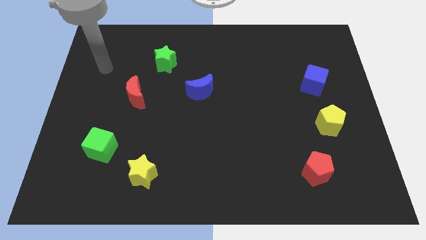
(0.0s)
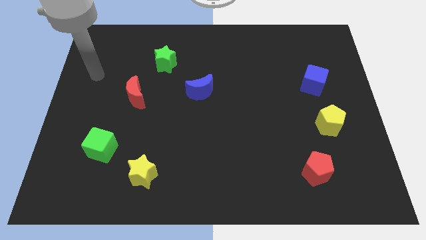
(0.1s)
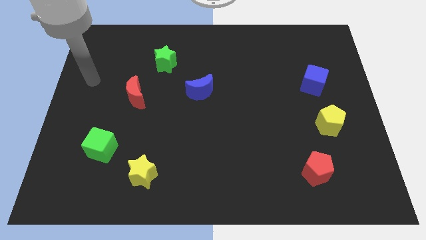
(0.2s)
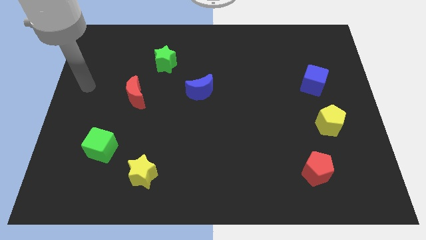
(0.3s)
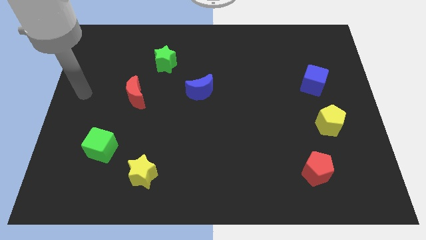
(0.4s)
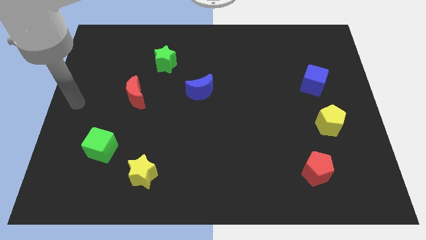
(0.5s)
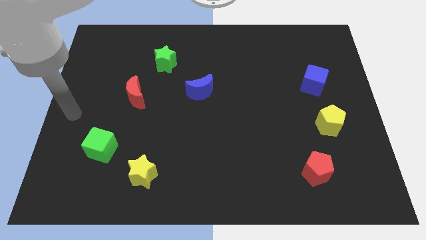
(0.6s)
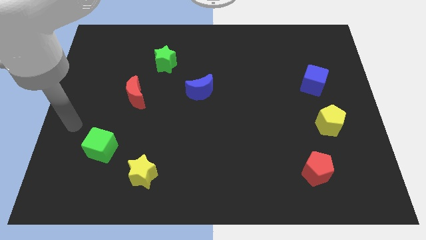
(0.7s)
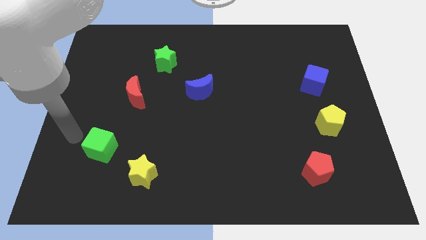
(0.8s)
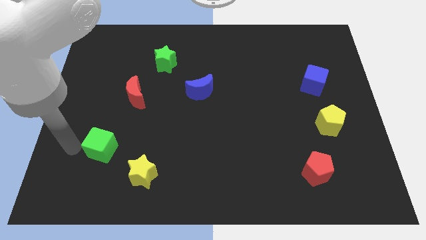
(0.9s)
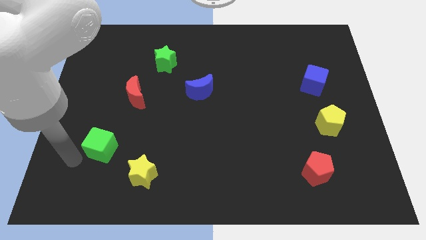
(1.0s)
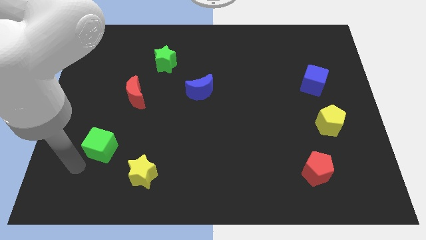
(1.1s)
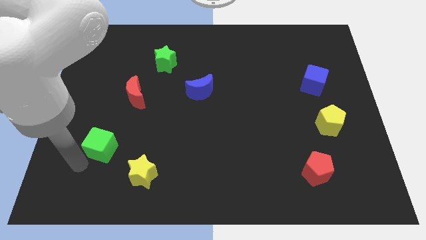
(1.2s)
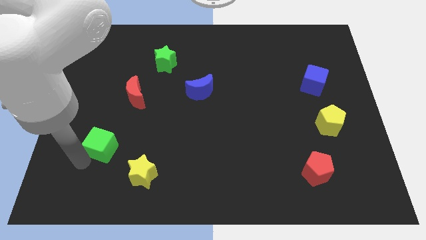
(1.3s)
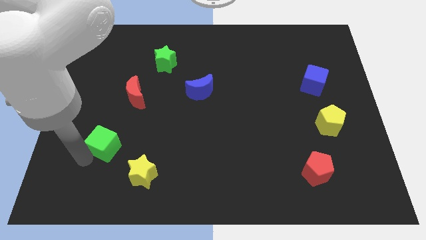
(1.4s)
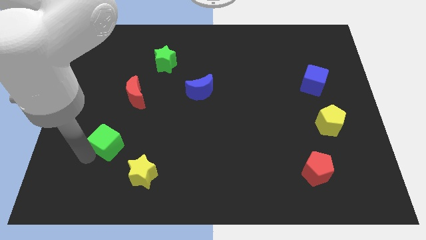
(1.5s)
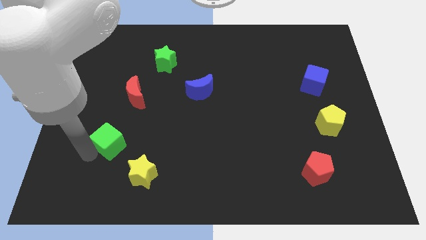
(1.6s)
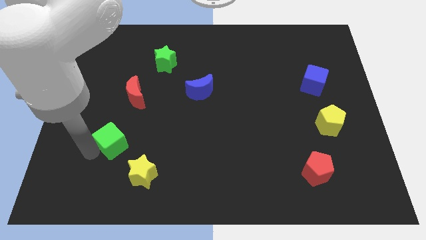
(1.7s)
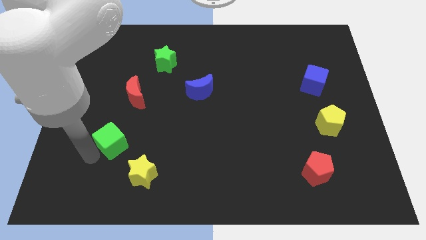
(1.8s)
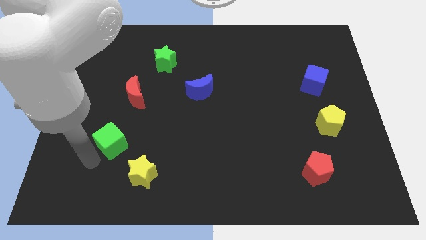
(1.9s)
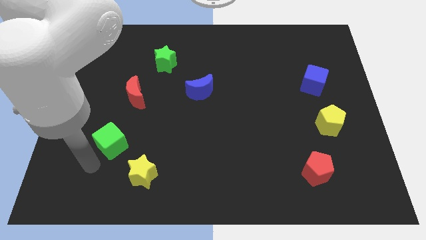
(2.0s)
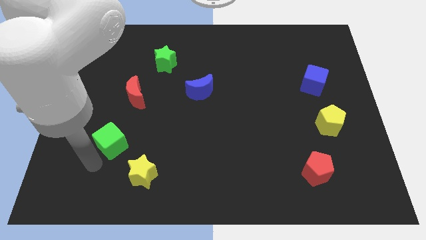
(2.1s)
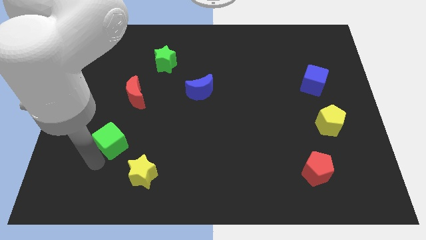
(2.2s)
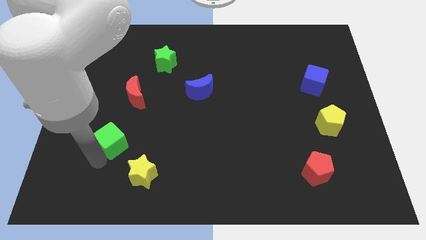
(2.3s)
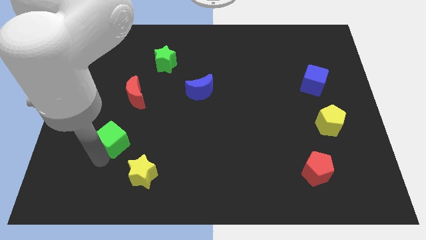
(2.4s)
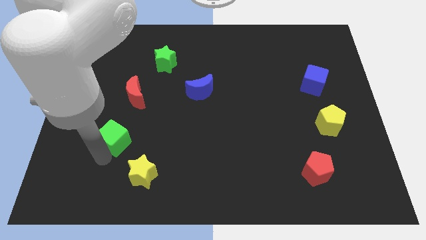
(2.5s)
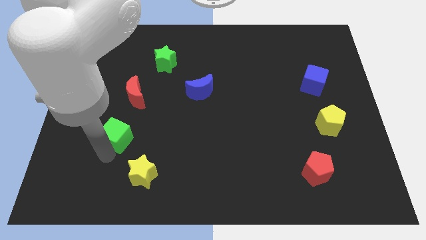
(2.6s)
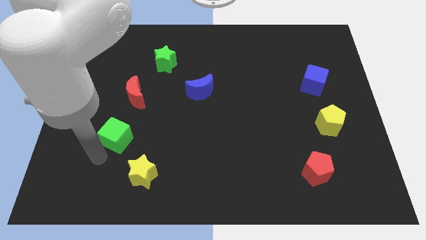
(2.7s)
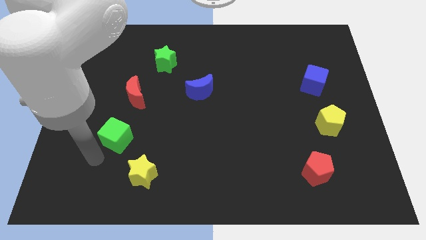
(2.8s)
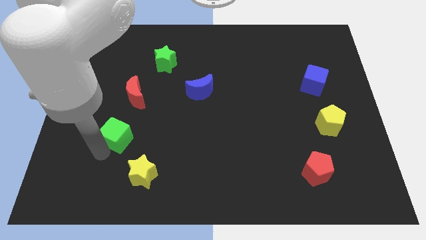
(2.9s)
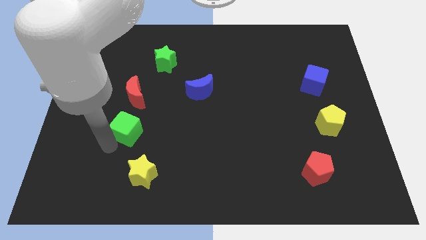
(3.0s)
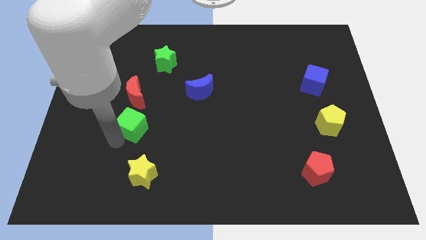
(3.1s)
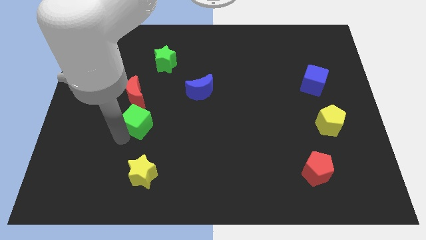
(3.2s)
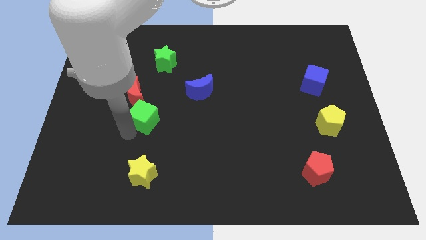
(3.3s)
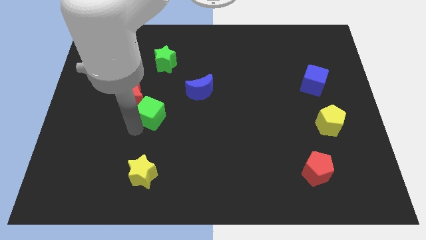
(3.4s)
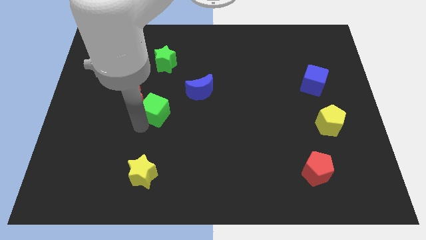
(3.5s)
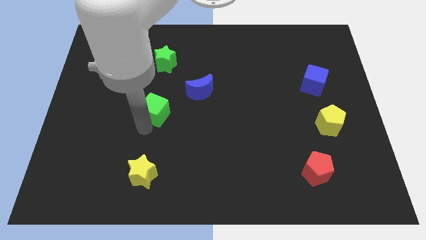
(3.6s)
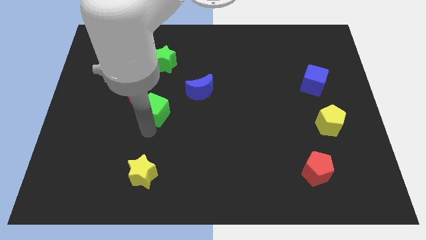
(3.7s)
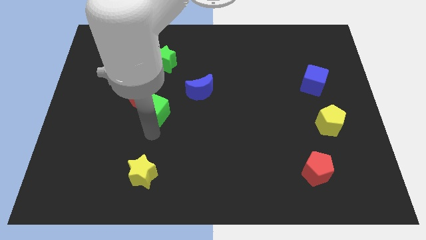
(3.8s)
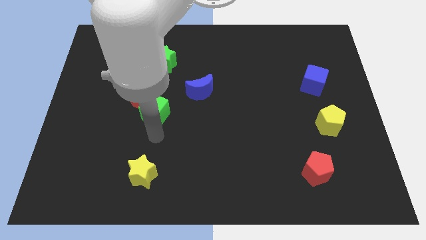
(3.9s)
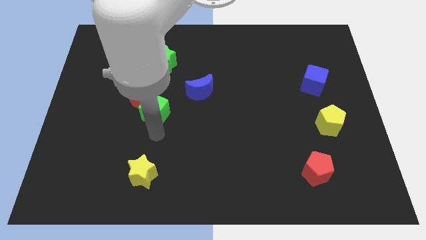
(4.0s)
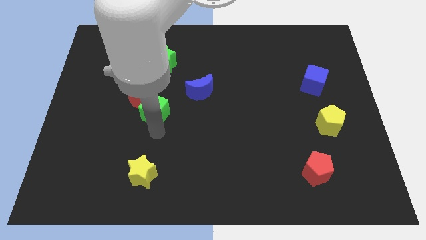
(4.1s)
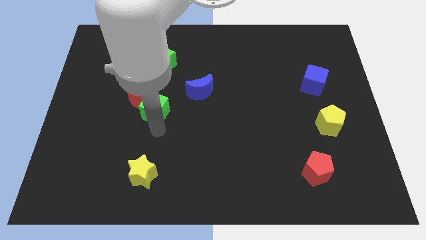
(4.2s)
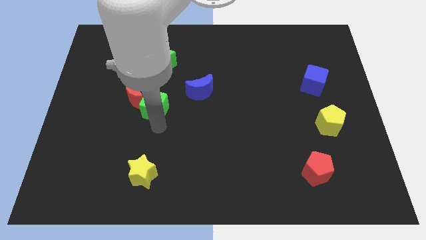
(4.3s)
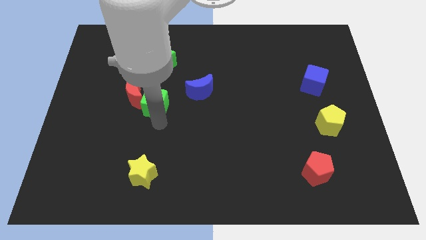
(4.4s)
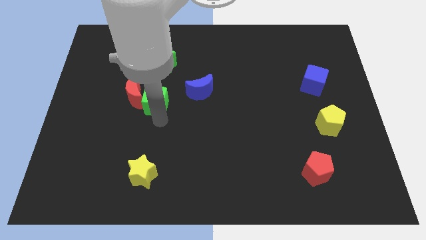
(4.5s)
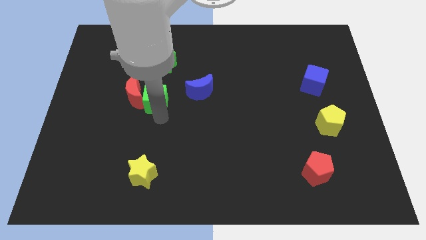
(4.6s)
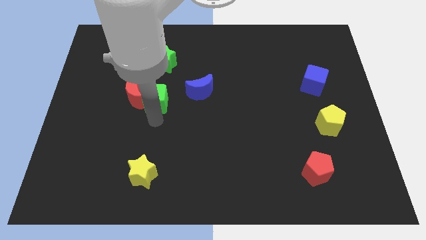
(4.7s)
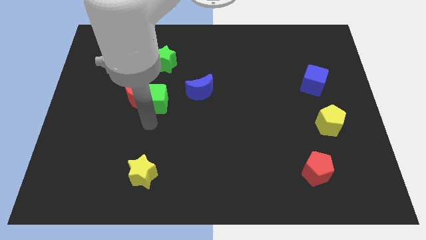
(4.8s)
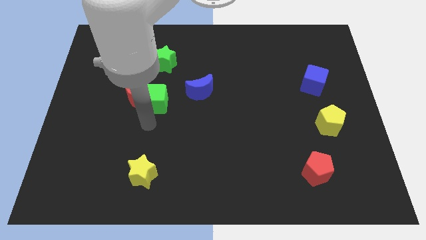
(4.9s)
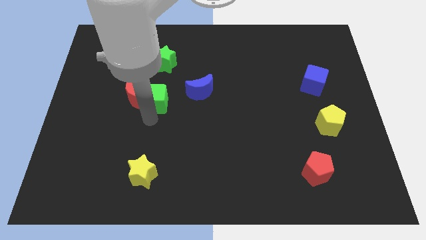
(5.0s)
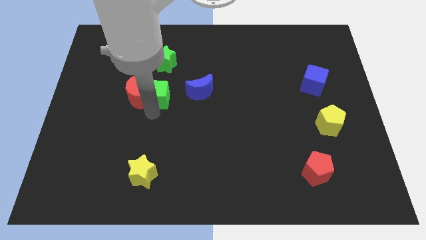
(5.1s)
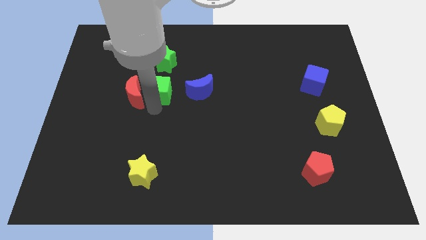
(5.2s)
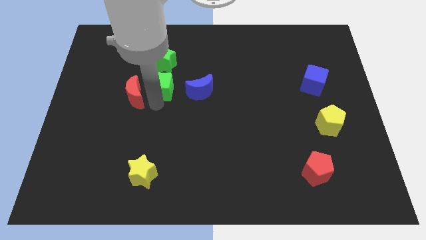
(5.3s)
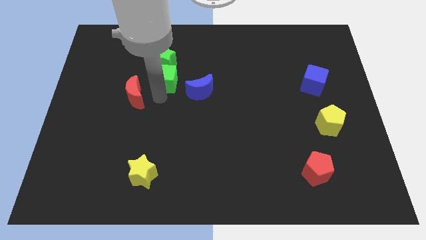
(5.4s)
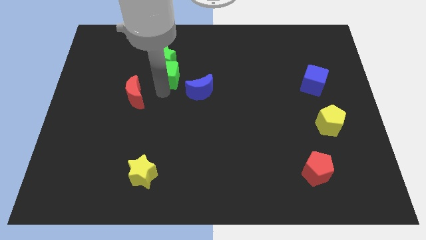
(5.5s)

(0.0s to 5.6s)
push the green cube towards the green star

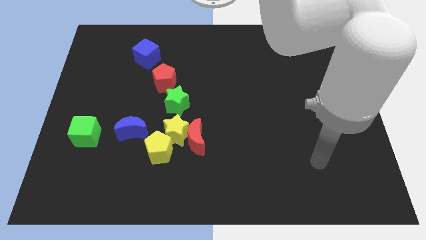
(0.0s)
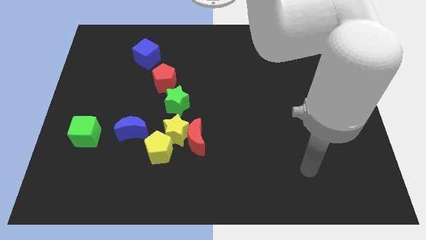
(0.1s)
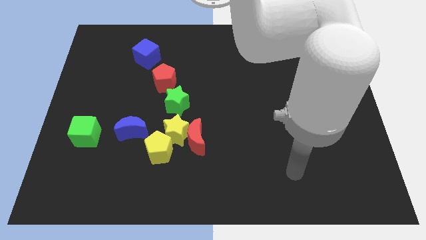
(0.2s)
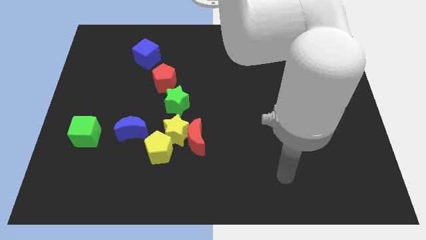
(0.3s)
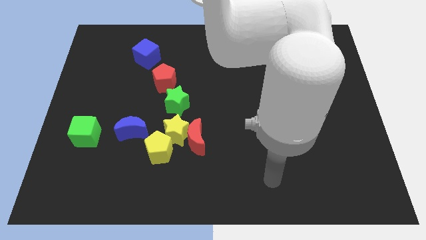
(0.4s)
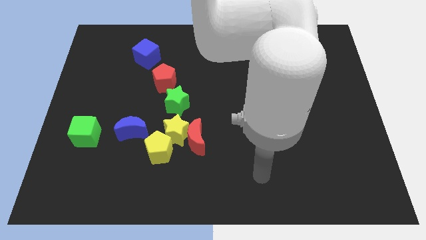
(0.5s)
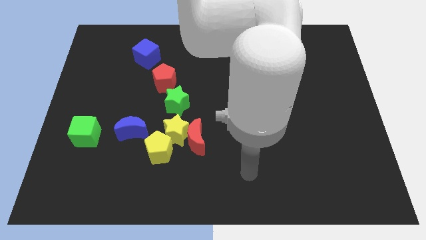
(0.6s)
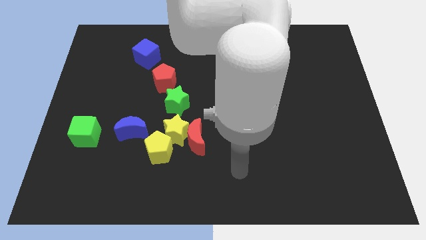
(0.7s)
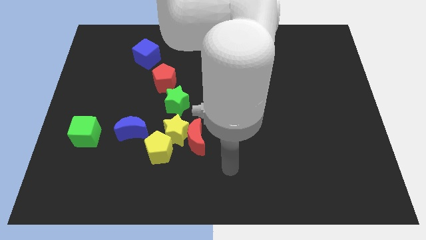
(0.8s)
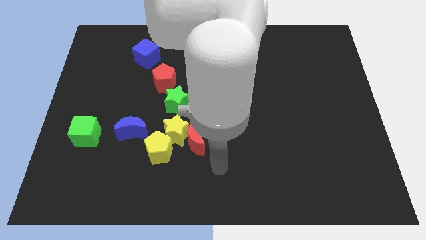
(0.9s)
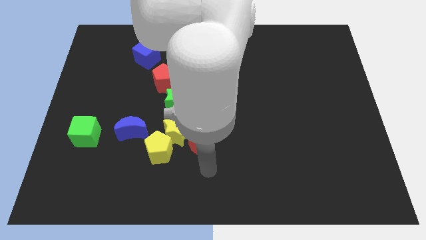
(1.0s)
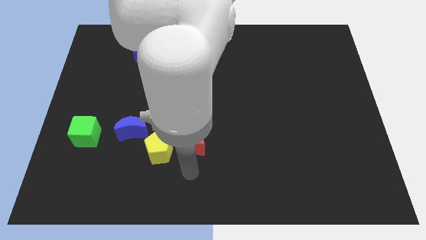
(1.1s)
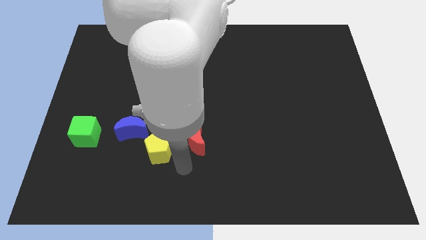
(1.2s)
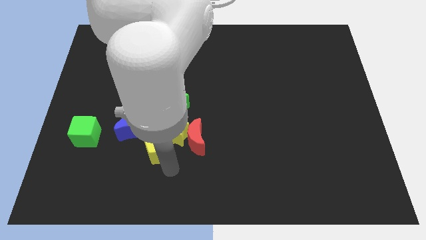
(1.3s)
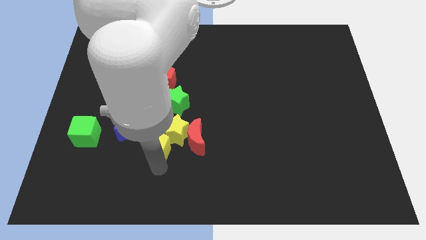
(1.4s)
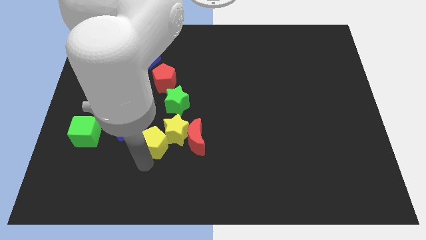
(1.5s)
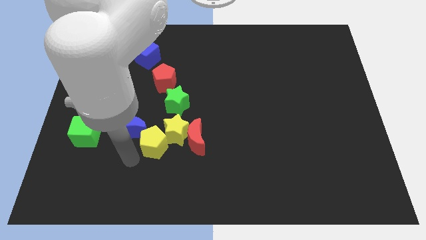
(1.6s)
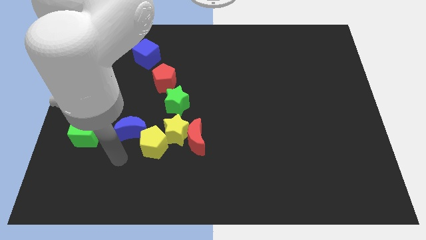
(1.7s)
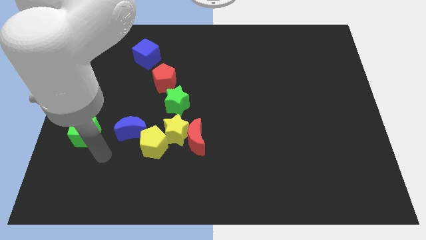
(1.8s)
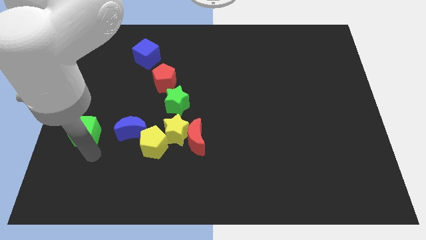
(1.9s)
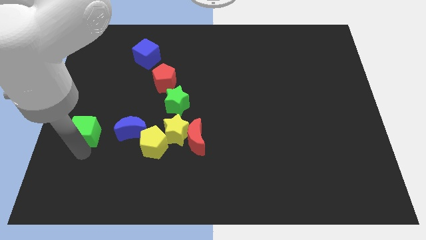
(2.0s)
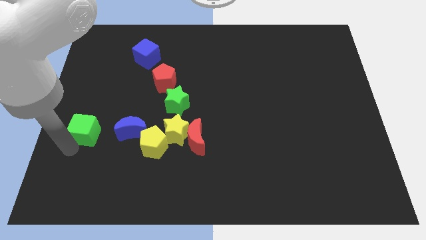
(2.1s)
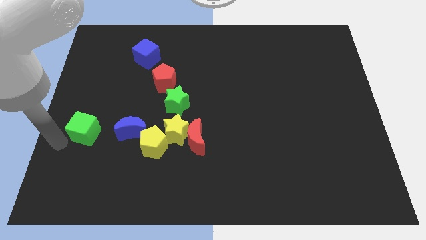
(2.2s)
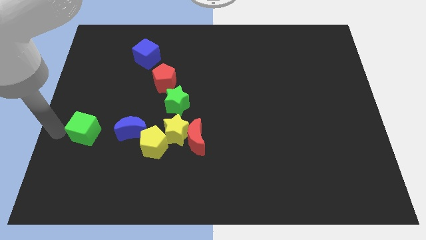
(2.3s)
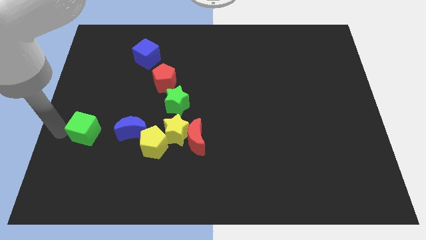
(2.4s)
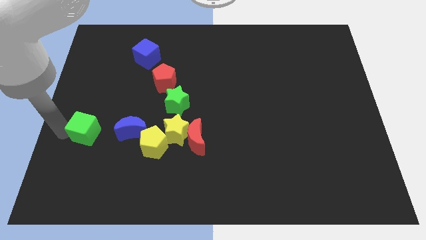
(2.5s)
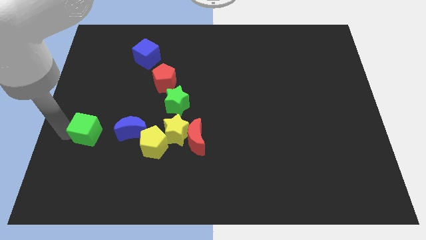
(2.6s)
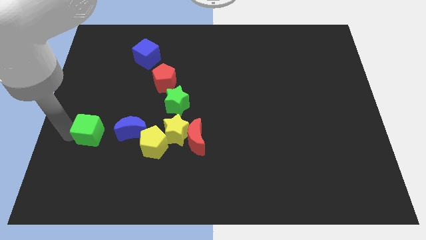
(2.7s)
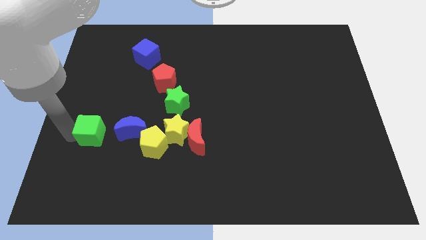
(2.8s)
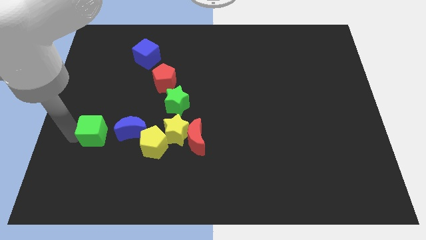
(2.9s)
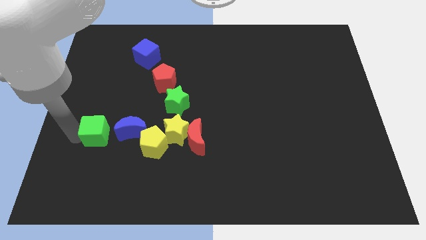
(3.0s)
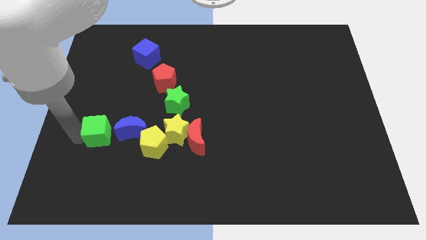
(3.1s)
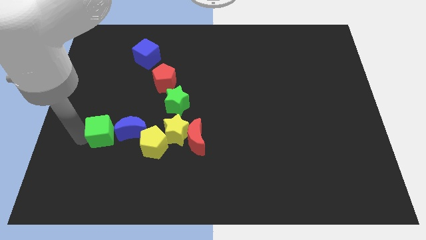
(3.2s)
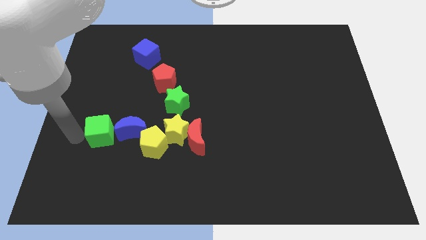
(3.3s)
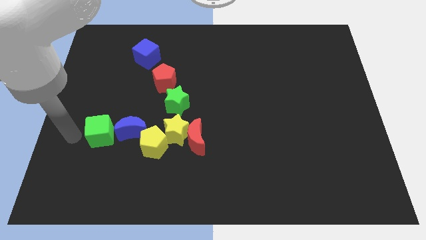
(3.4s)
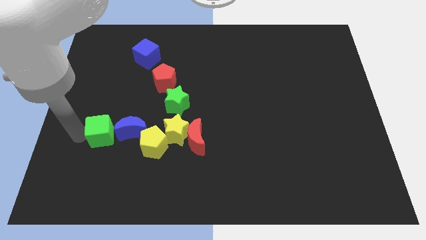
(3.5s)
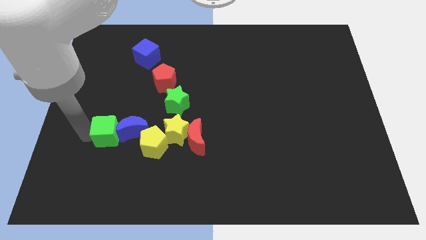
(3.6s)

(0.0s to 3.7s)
slide the green cube to the blue moon
